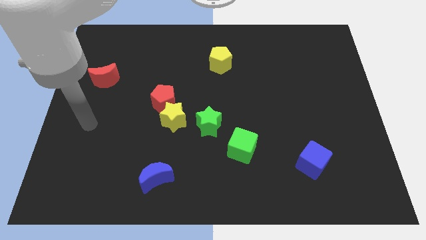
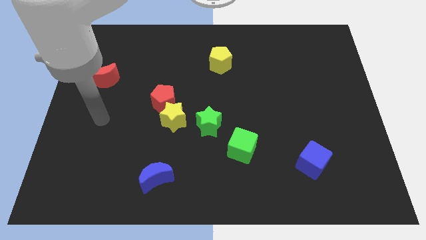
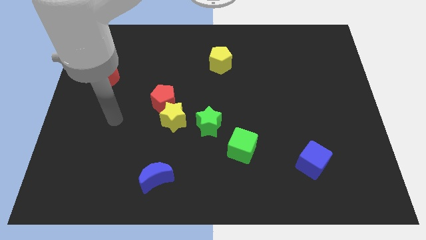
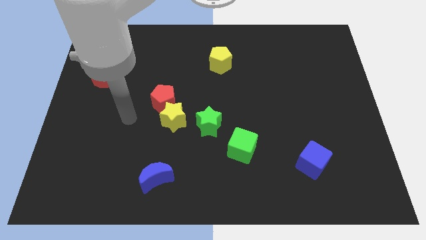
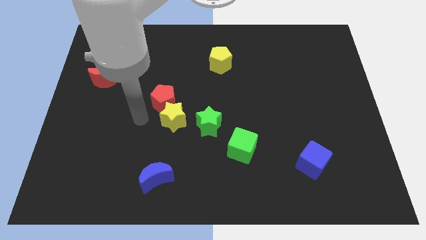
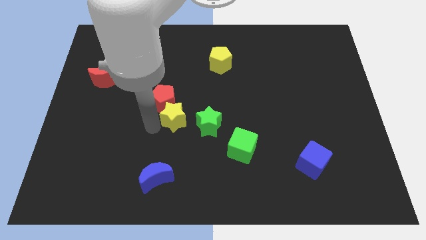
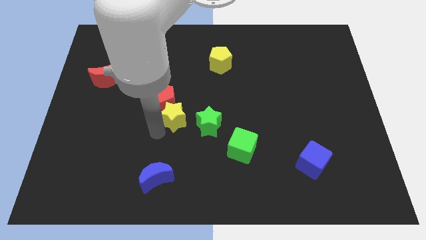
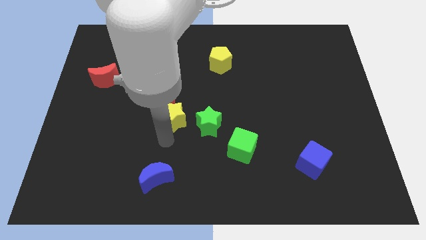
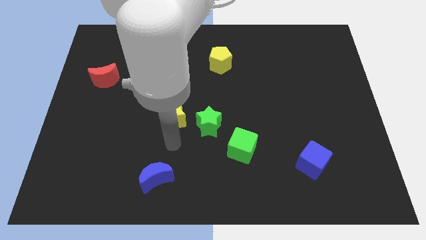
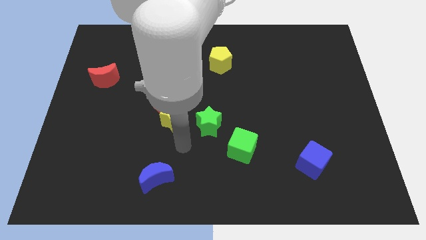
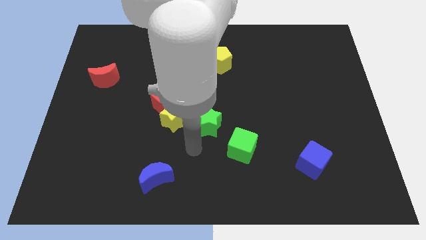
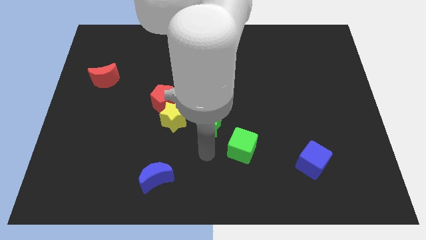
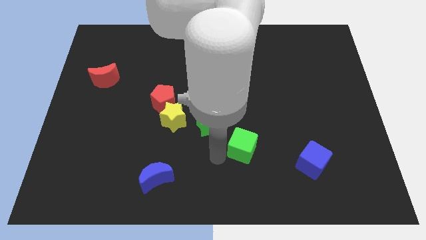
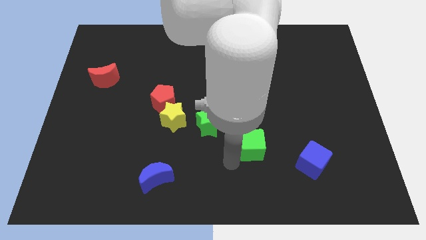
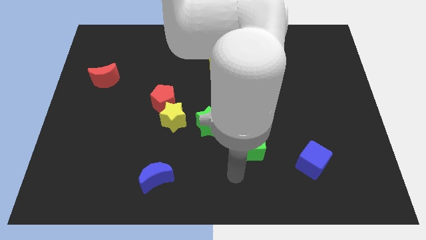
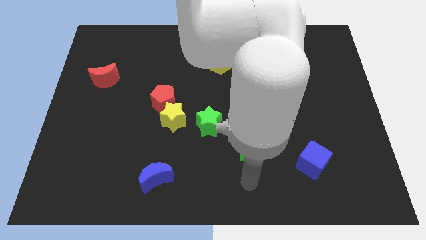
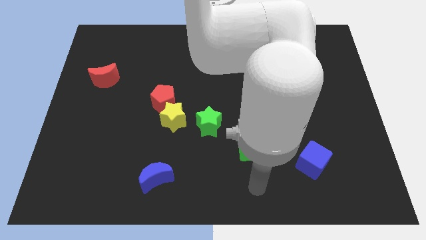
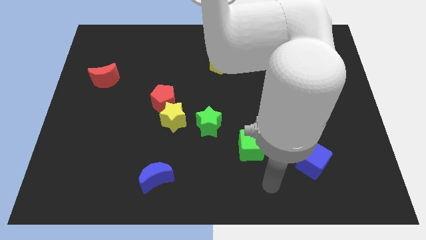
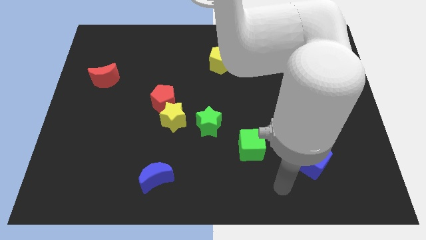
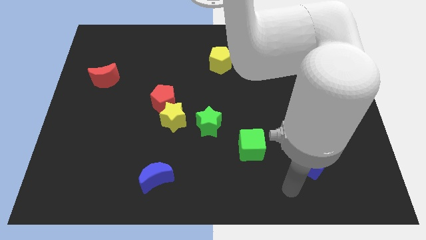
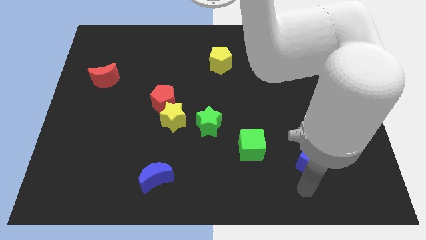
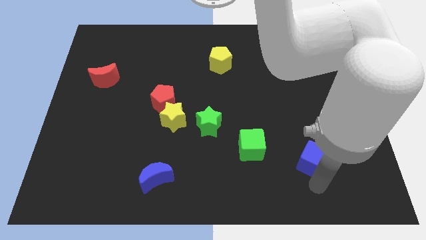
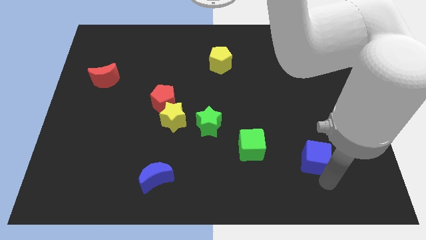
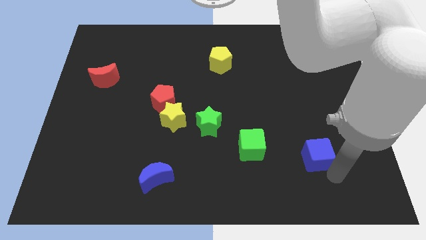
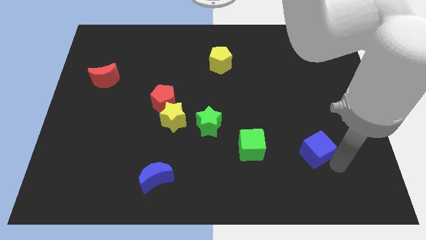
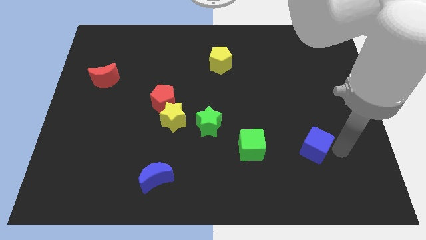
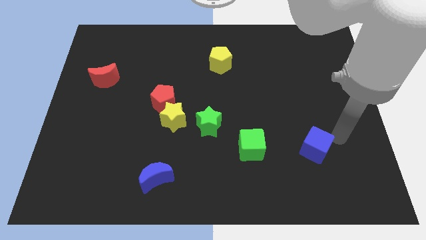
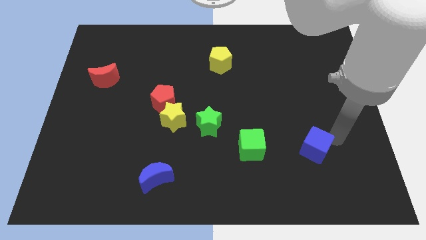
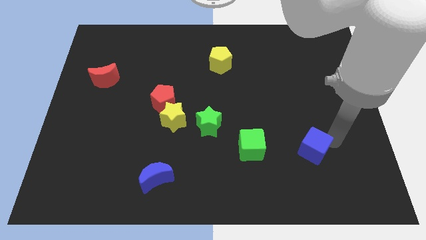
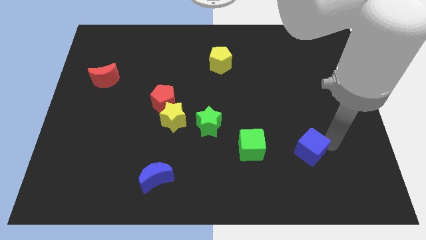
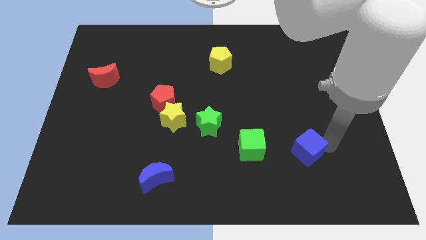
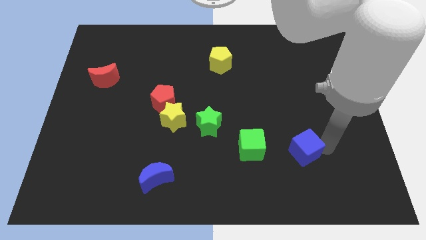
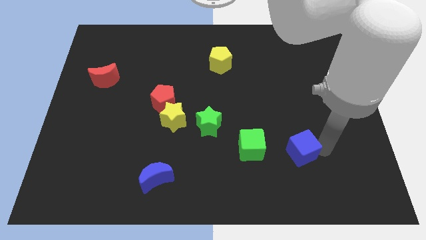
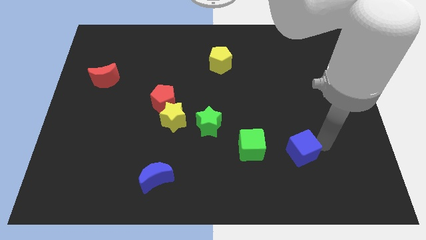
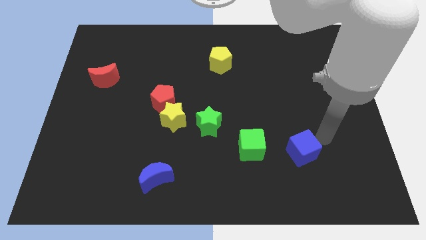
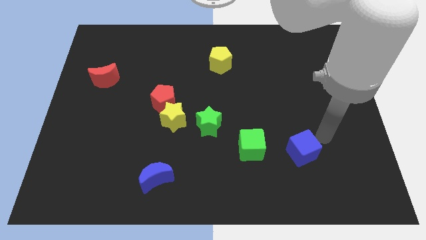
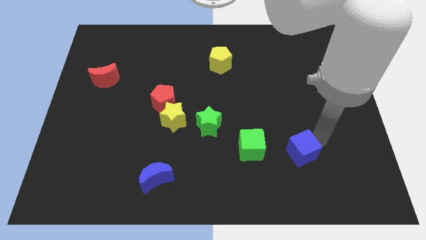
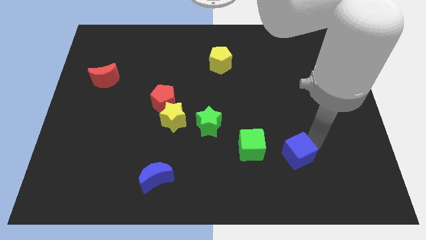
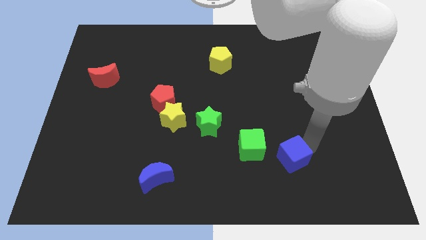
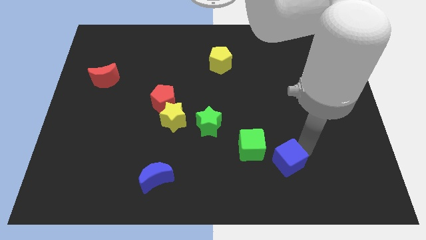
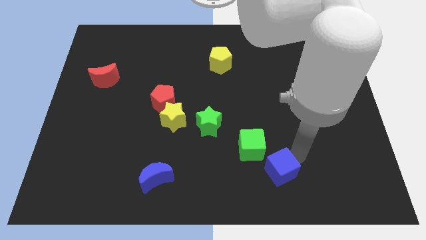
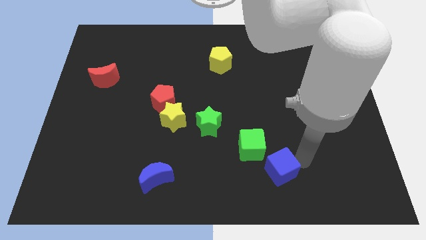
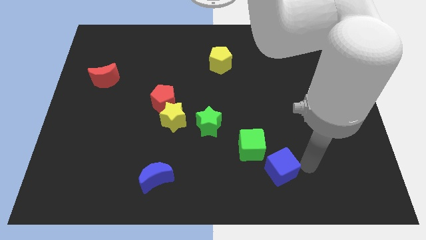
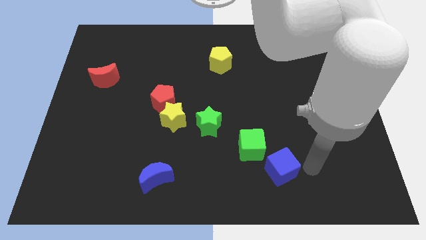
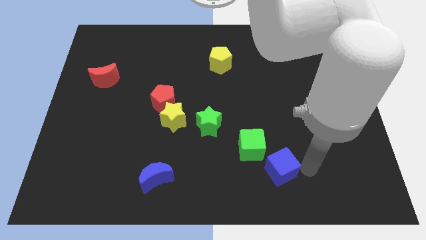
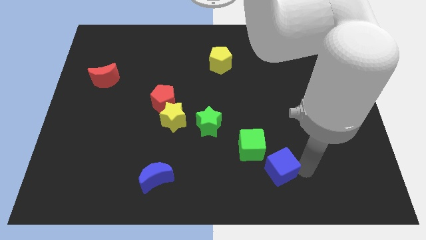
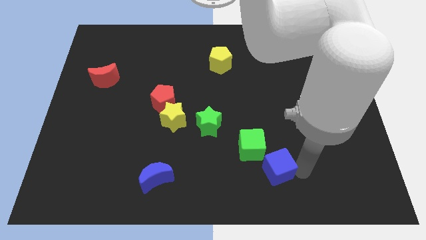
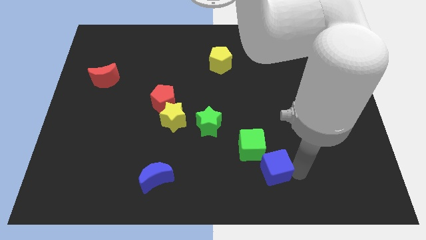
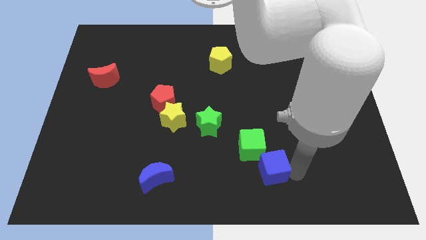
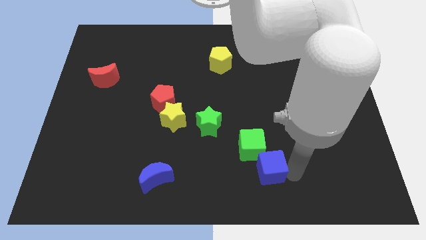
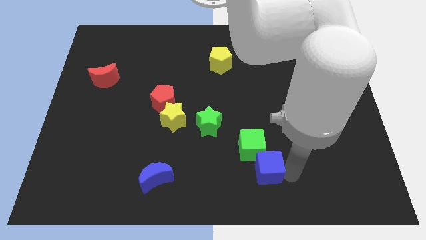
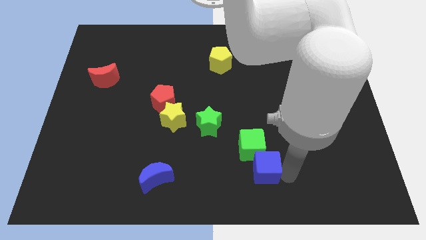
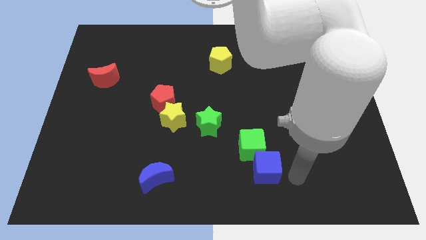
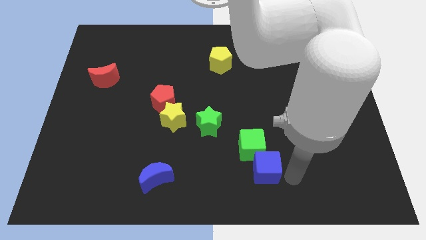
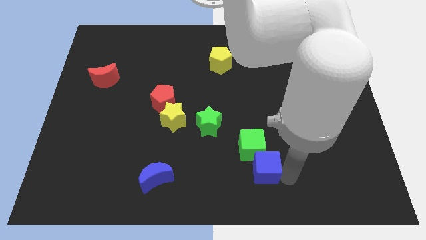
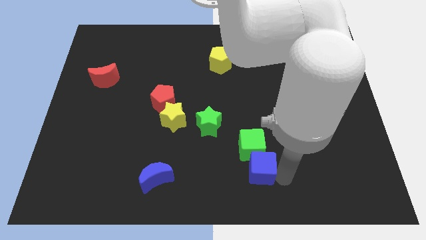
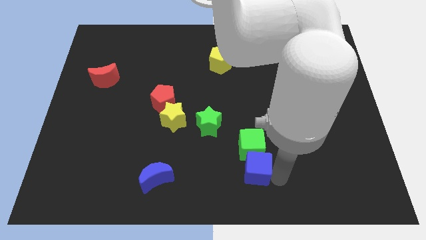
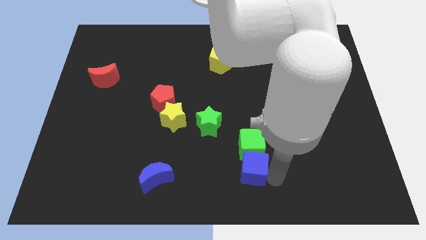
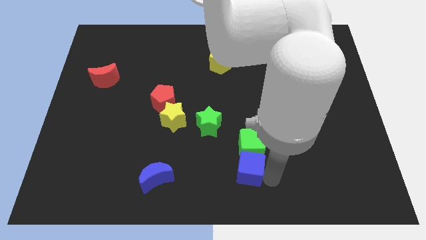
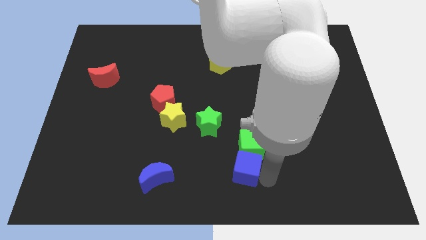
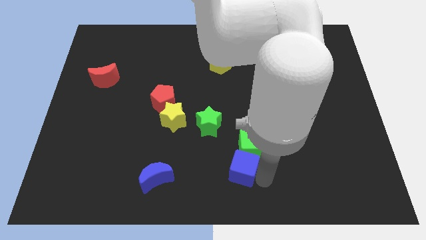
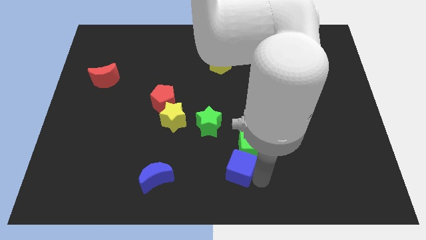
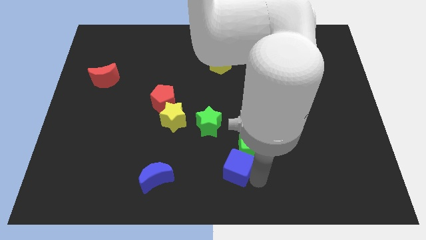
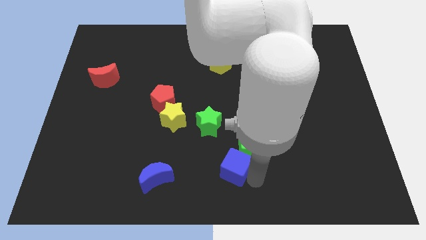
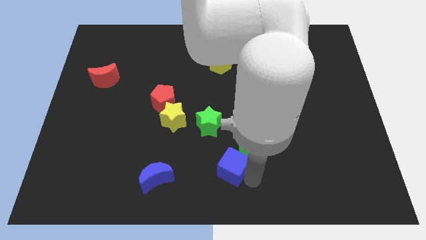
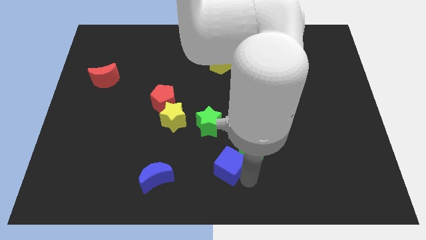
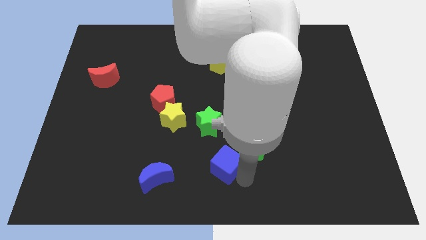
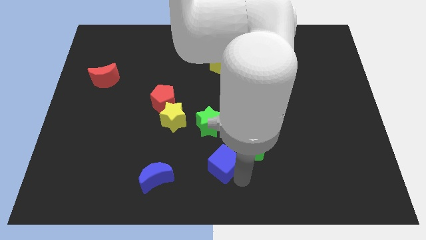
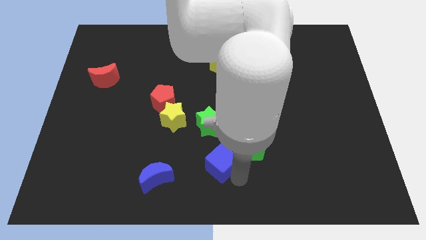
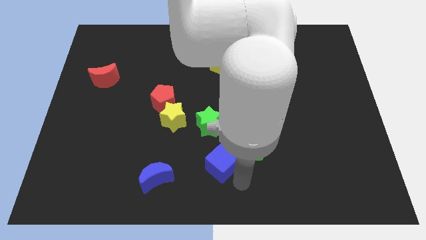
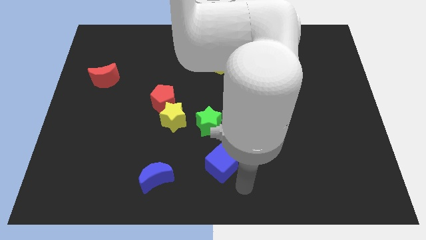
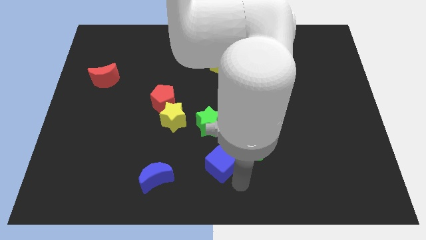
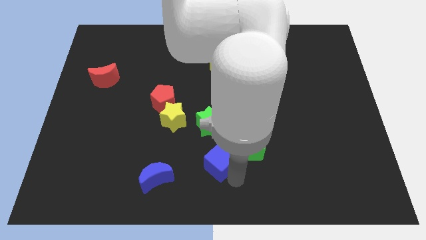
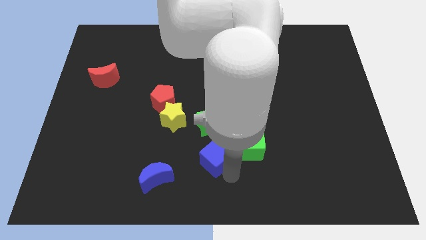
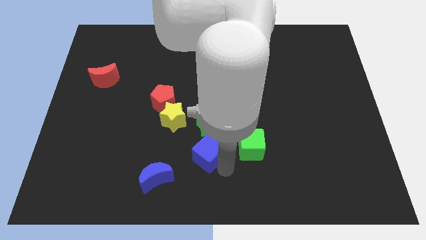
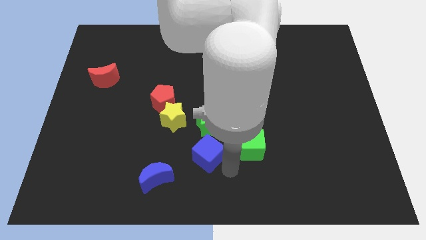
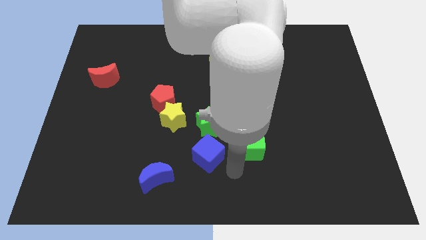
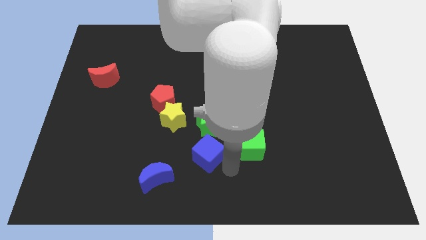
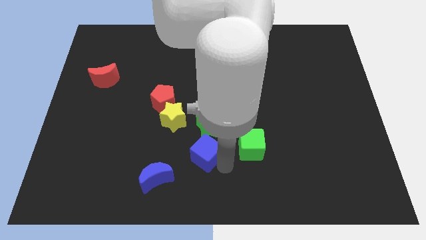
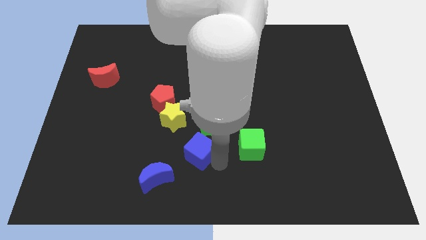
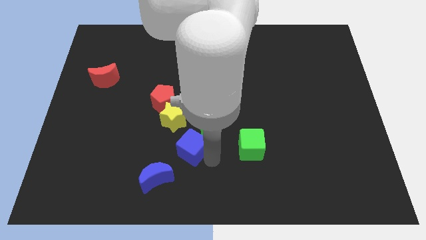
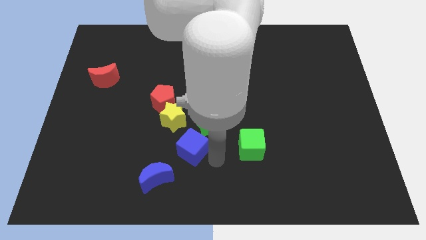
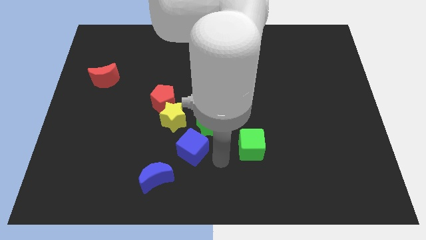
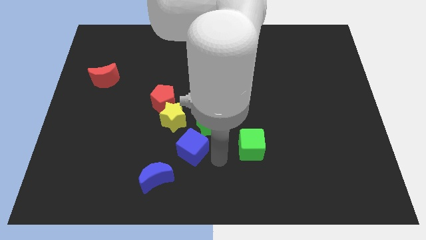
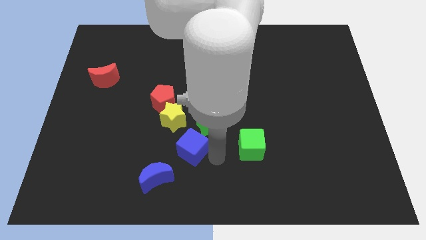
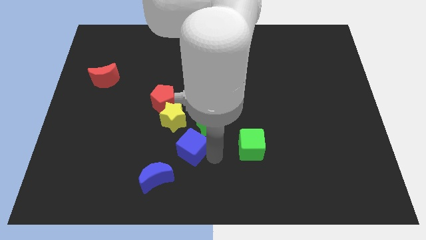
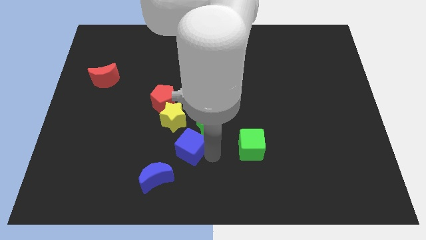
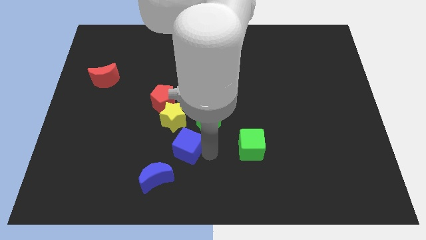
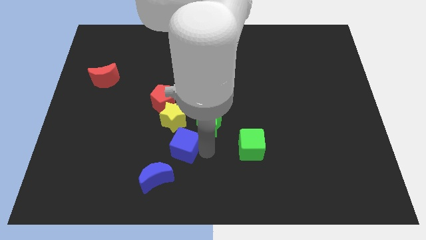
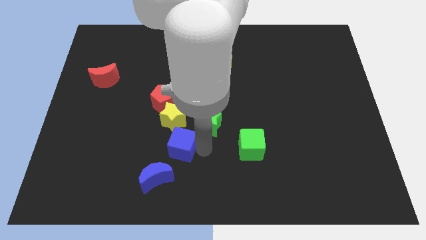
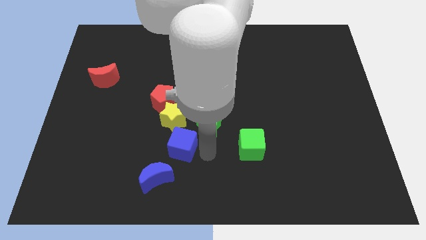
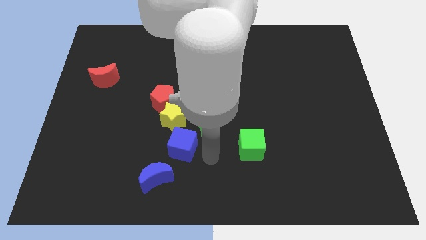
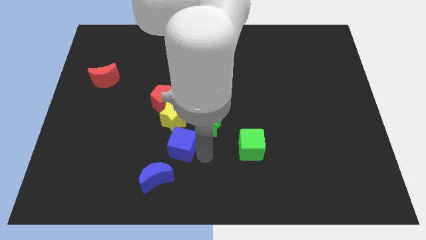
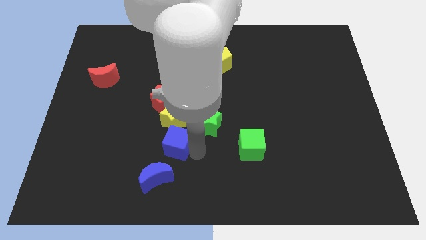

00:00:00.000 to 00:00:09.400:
slide the blue cube to the bottom side of the red pentagon
